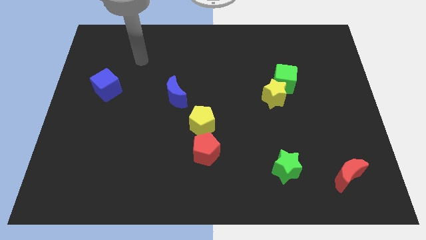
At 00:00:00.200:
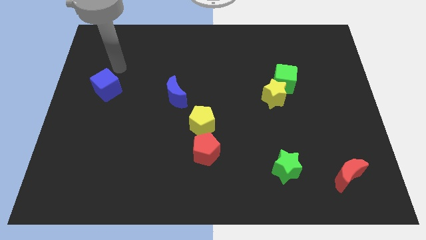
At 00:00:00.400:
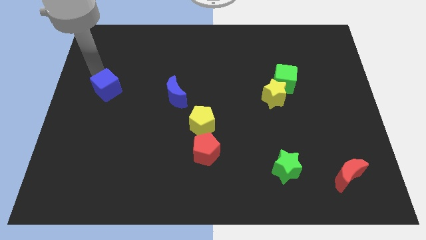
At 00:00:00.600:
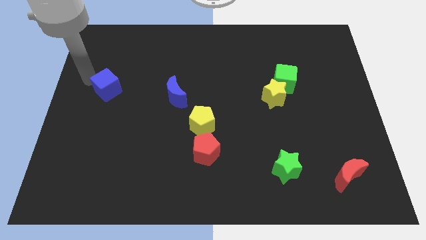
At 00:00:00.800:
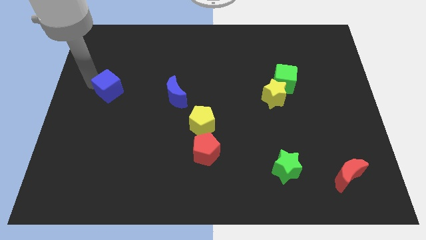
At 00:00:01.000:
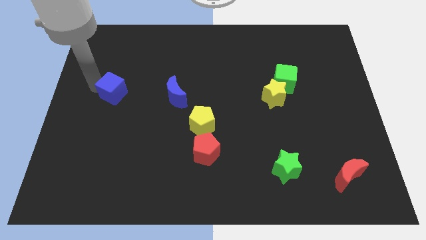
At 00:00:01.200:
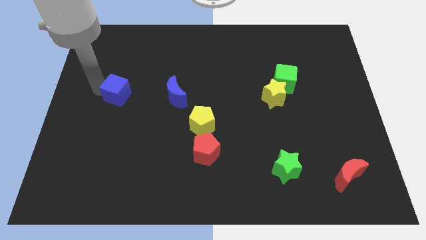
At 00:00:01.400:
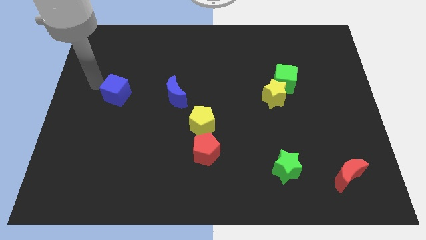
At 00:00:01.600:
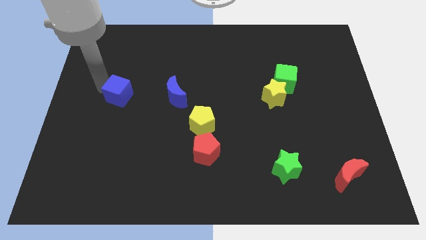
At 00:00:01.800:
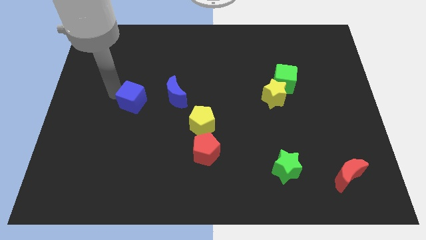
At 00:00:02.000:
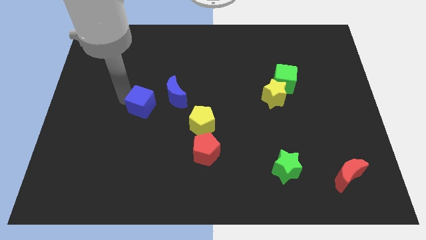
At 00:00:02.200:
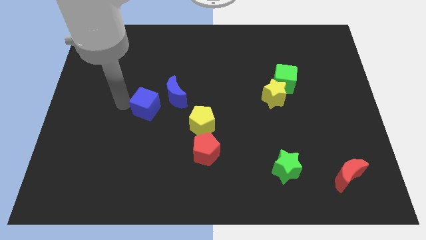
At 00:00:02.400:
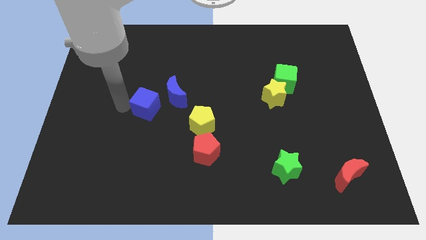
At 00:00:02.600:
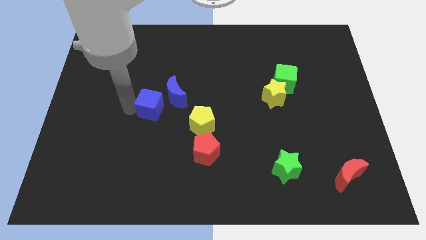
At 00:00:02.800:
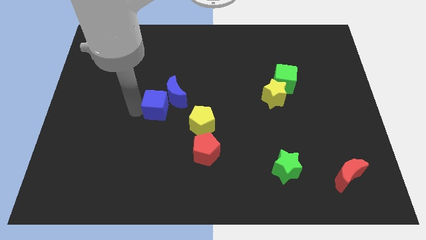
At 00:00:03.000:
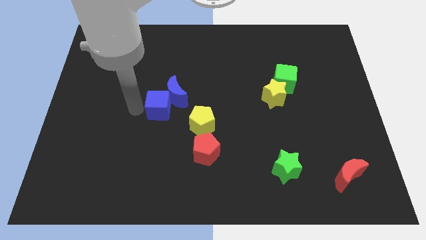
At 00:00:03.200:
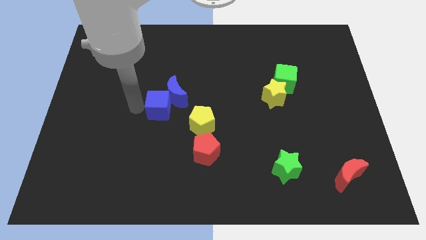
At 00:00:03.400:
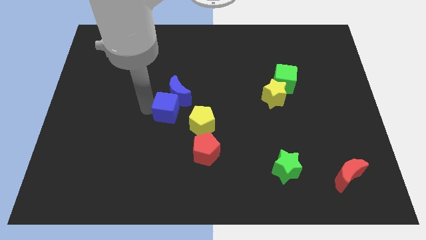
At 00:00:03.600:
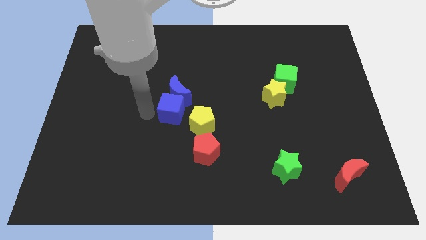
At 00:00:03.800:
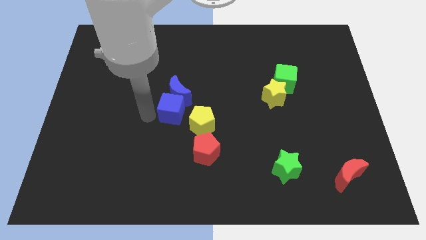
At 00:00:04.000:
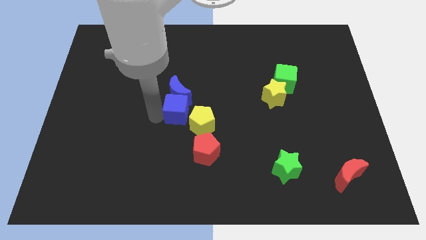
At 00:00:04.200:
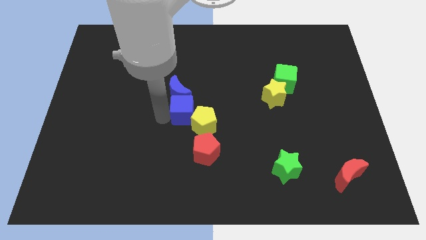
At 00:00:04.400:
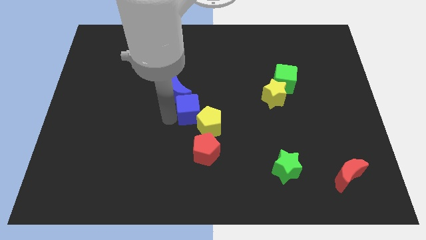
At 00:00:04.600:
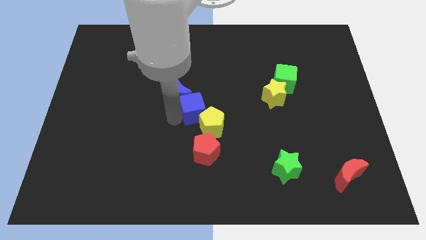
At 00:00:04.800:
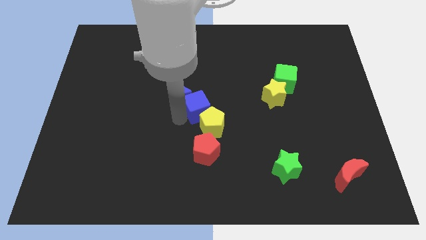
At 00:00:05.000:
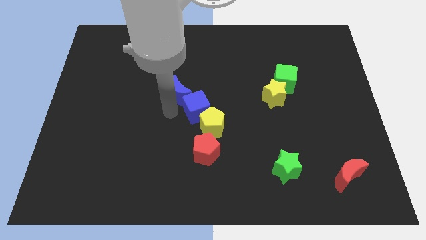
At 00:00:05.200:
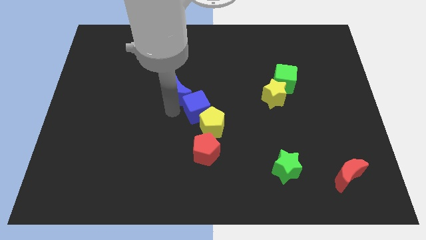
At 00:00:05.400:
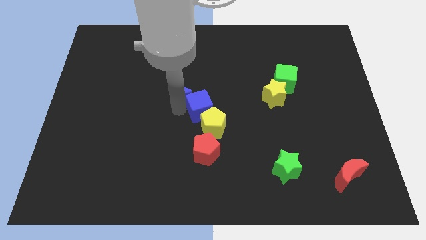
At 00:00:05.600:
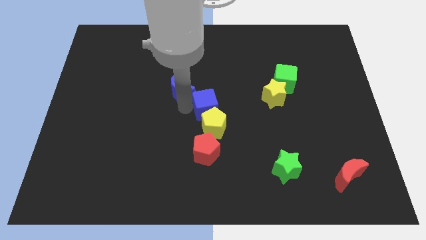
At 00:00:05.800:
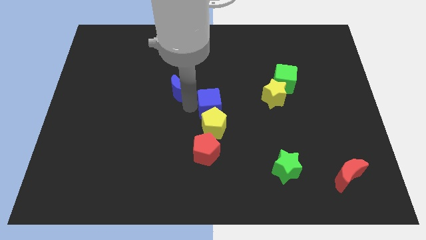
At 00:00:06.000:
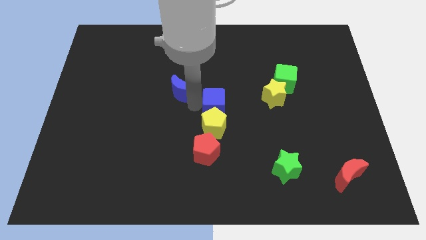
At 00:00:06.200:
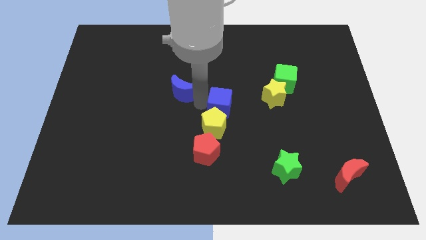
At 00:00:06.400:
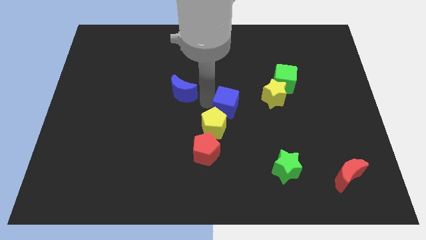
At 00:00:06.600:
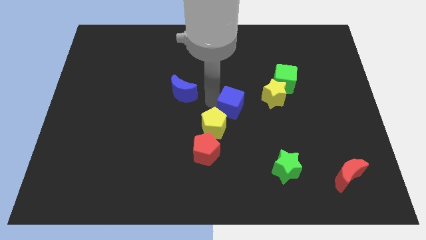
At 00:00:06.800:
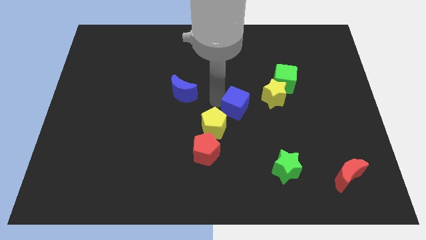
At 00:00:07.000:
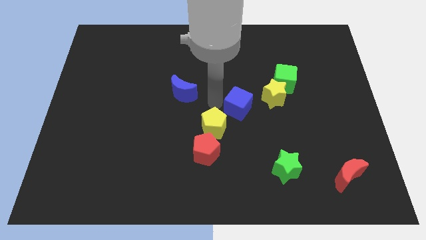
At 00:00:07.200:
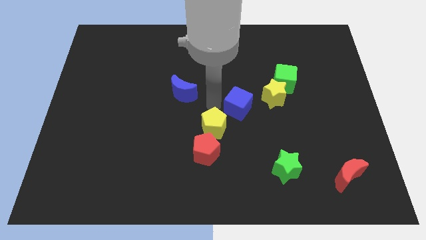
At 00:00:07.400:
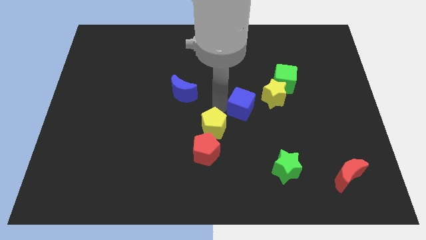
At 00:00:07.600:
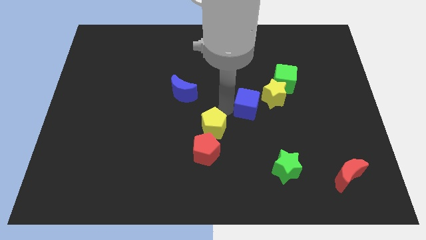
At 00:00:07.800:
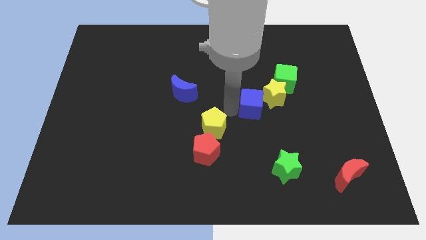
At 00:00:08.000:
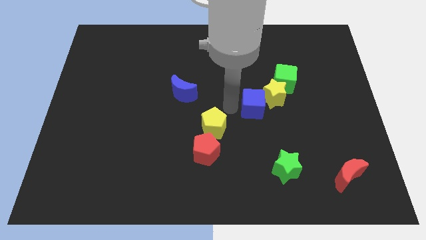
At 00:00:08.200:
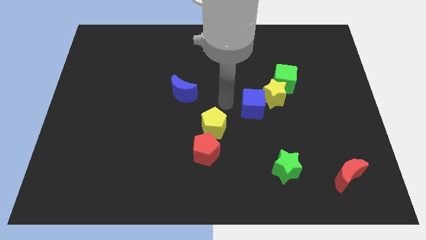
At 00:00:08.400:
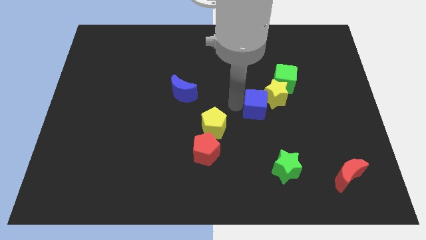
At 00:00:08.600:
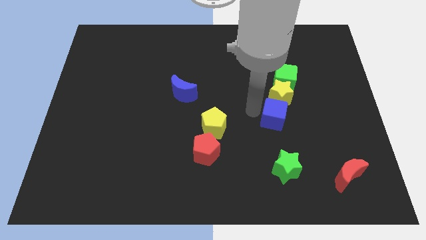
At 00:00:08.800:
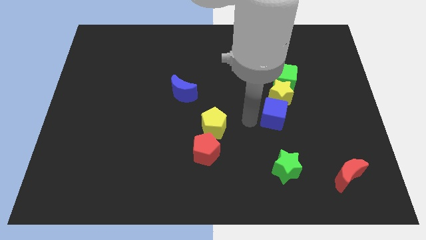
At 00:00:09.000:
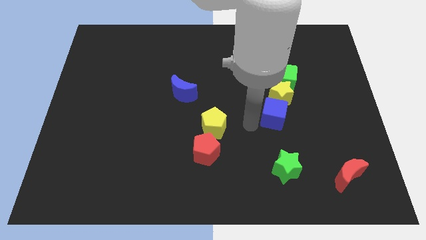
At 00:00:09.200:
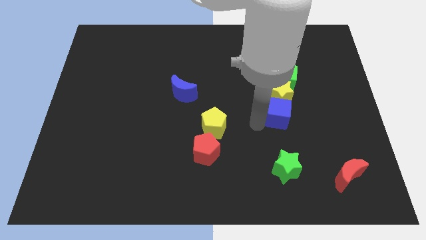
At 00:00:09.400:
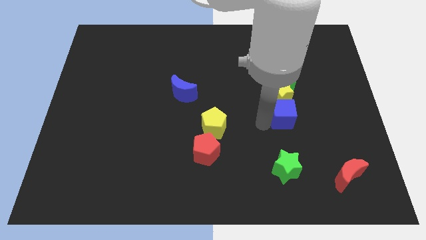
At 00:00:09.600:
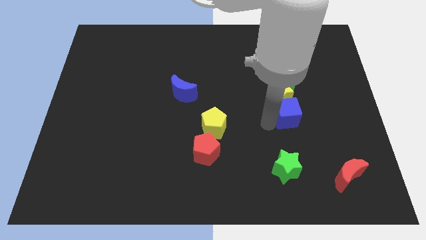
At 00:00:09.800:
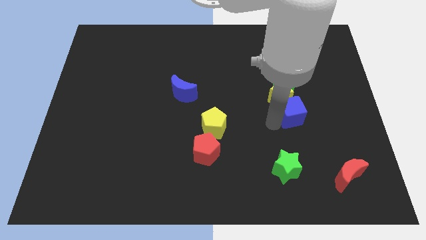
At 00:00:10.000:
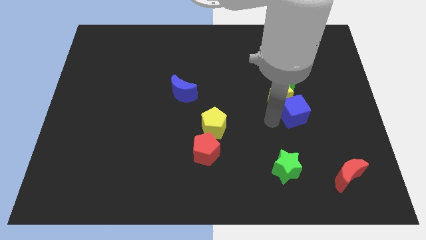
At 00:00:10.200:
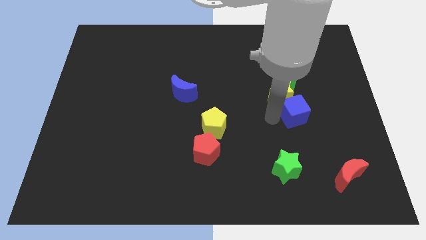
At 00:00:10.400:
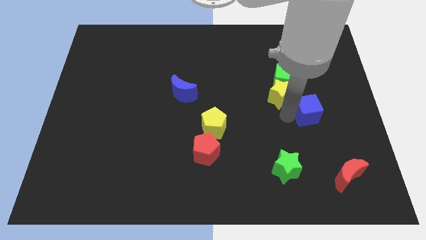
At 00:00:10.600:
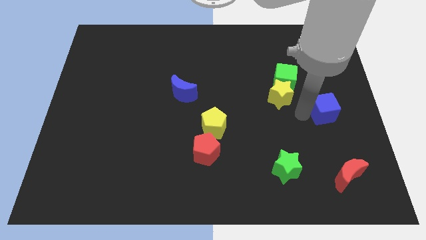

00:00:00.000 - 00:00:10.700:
push the blue cube to the right side of the board

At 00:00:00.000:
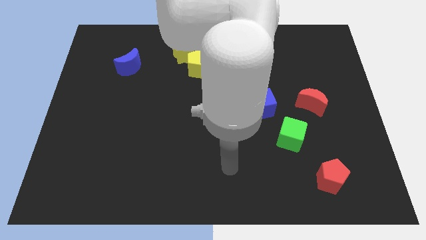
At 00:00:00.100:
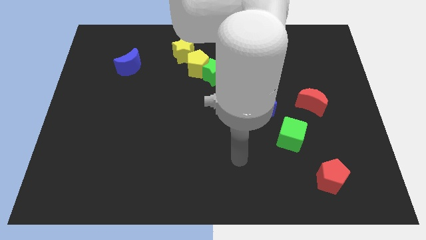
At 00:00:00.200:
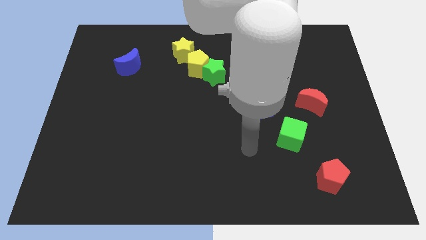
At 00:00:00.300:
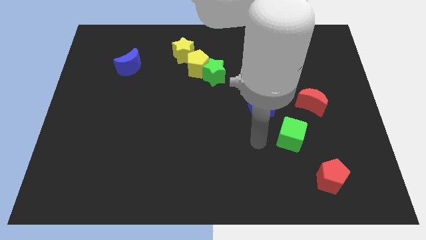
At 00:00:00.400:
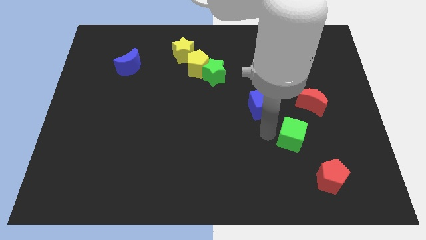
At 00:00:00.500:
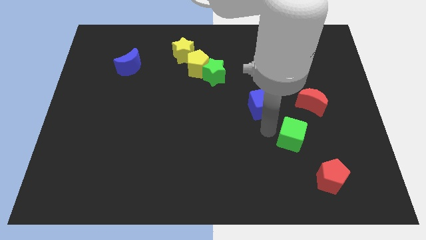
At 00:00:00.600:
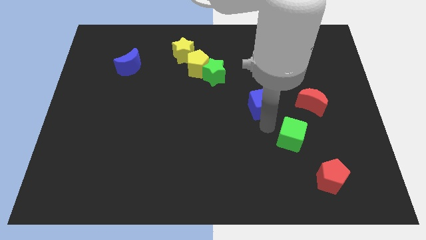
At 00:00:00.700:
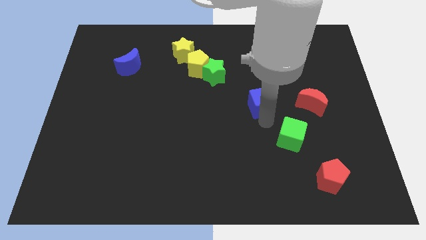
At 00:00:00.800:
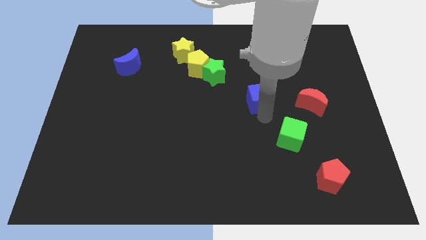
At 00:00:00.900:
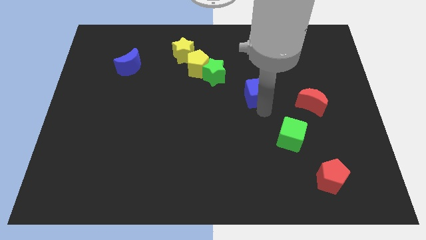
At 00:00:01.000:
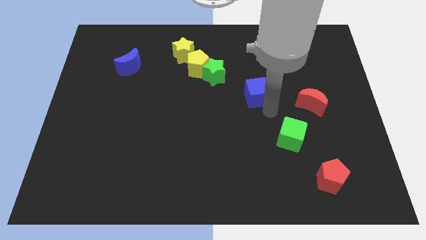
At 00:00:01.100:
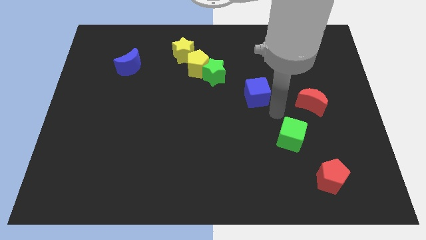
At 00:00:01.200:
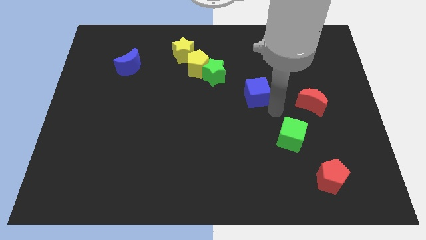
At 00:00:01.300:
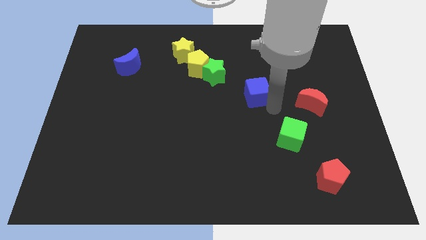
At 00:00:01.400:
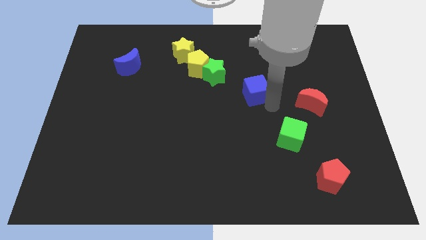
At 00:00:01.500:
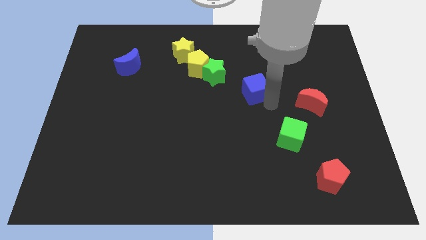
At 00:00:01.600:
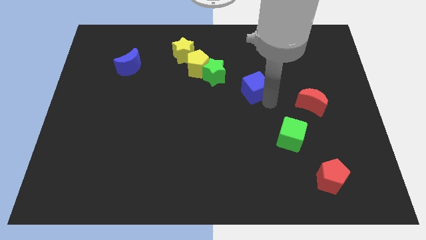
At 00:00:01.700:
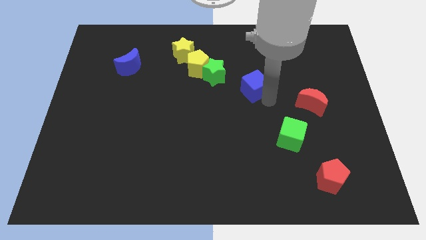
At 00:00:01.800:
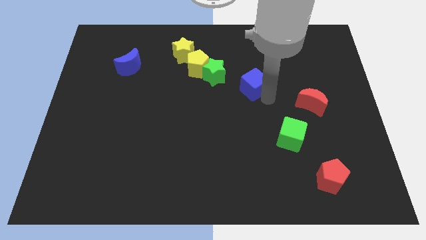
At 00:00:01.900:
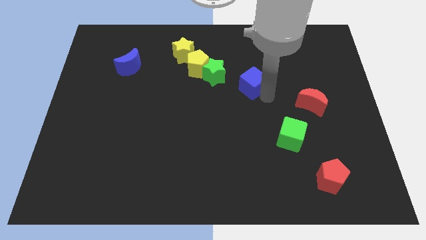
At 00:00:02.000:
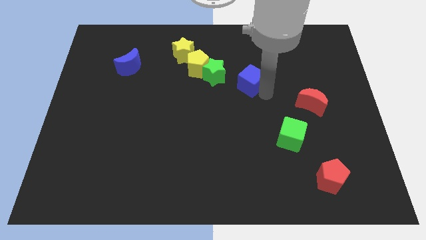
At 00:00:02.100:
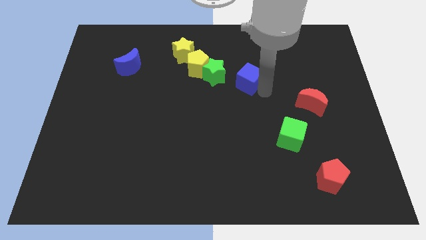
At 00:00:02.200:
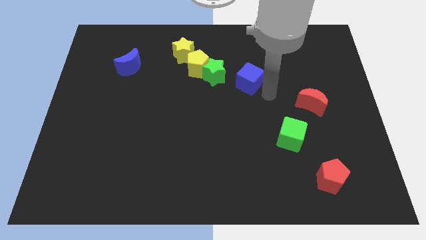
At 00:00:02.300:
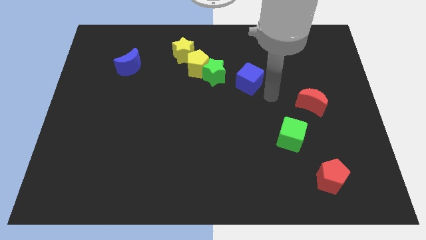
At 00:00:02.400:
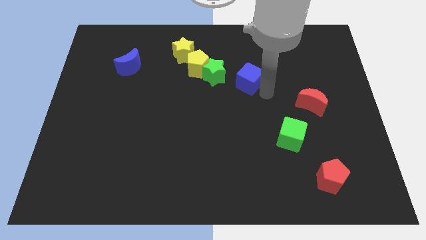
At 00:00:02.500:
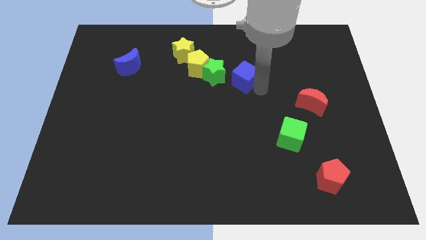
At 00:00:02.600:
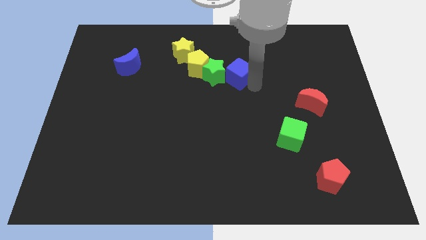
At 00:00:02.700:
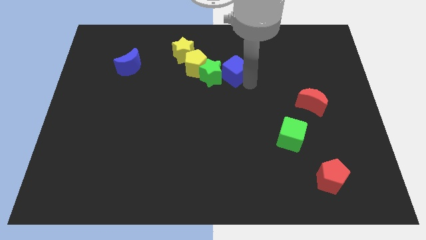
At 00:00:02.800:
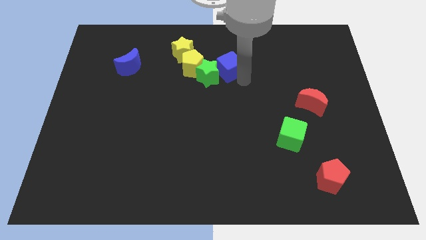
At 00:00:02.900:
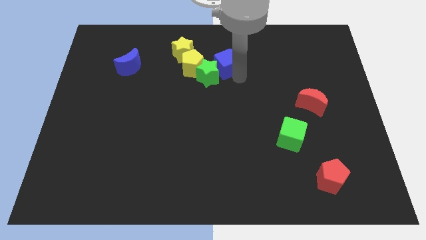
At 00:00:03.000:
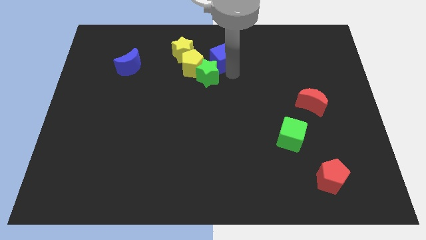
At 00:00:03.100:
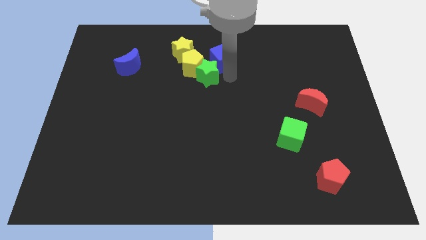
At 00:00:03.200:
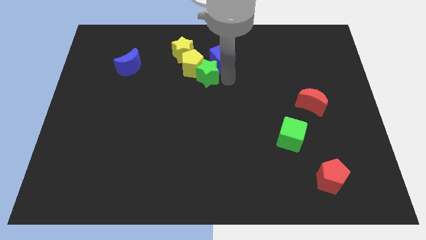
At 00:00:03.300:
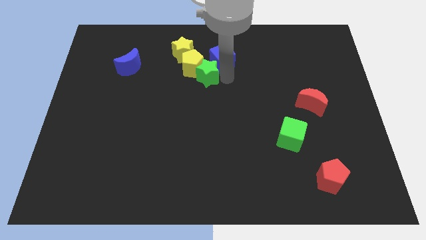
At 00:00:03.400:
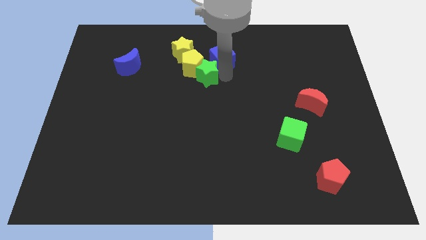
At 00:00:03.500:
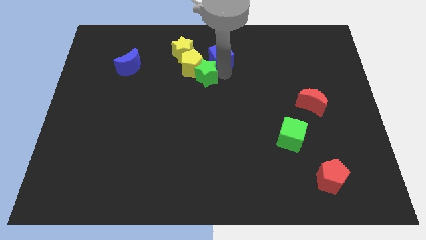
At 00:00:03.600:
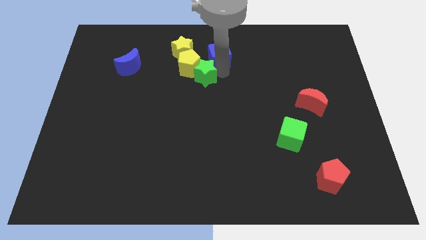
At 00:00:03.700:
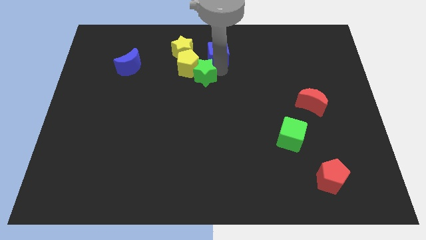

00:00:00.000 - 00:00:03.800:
move the blue cube to the top
